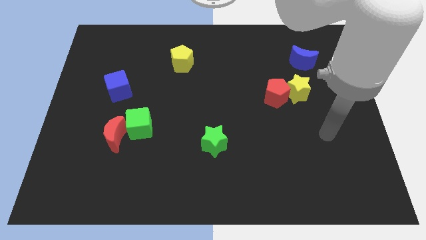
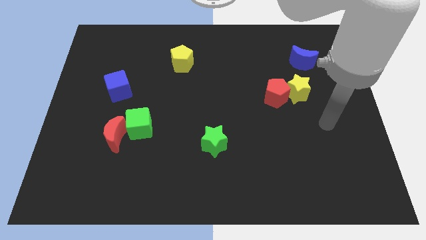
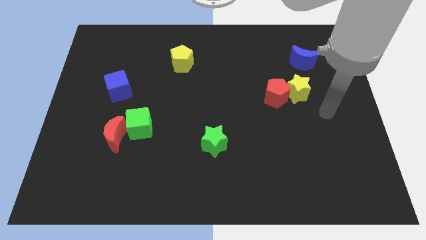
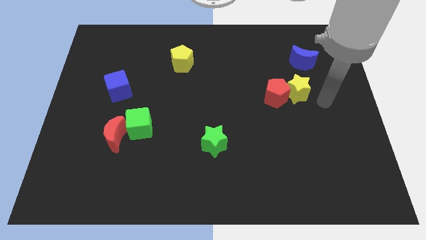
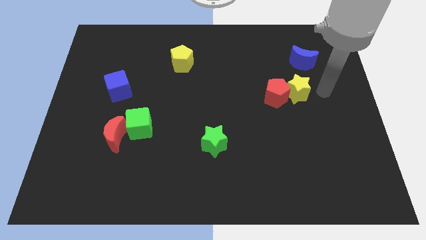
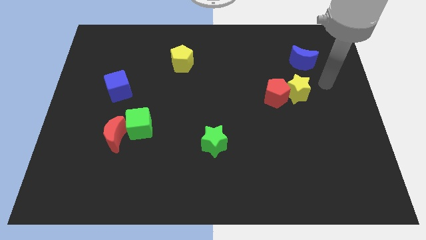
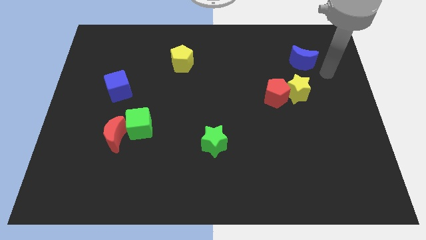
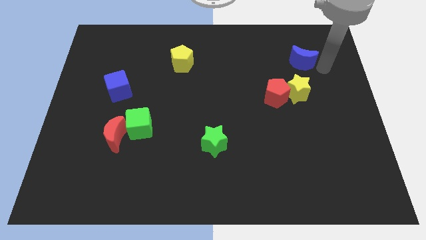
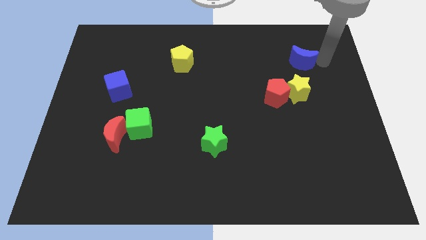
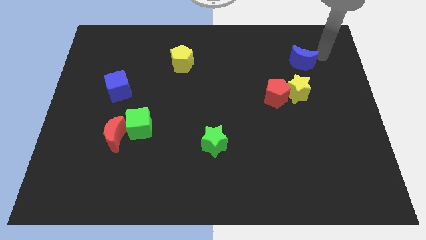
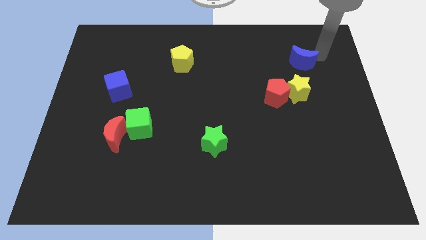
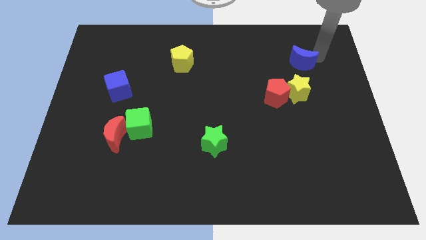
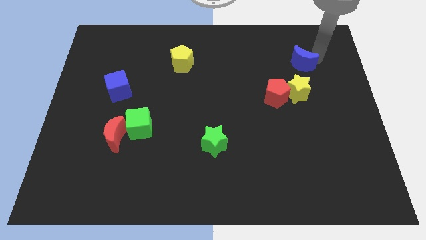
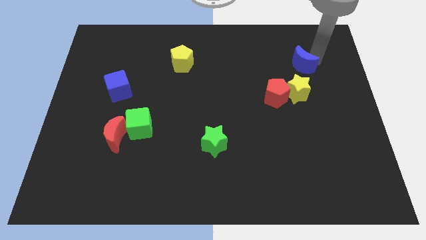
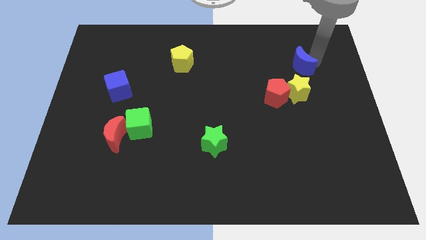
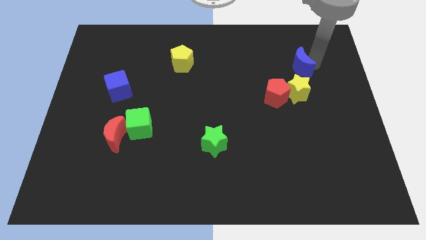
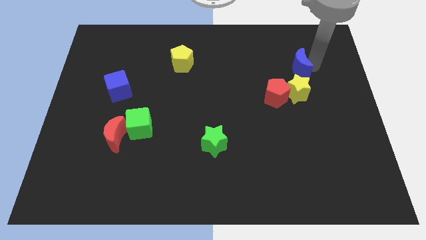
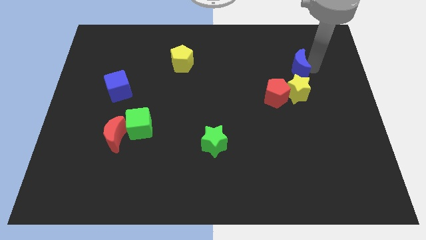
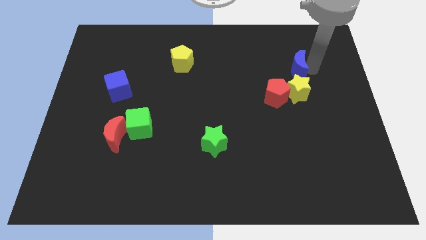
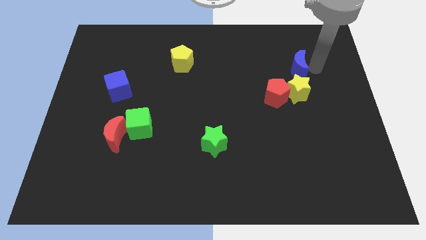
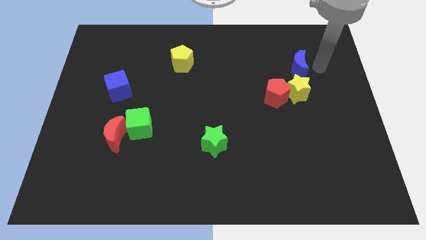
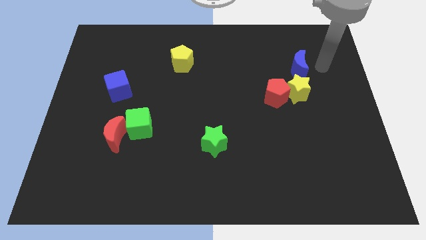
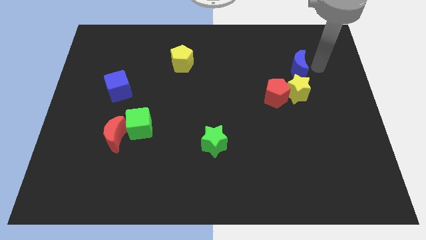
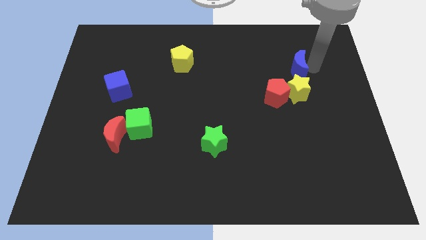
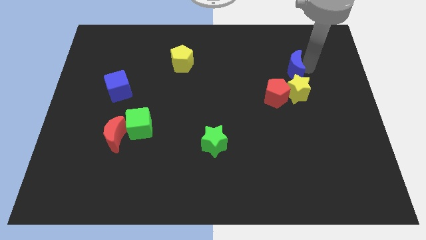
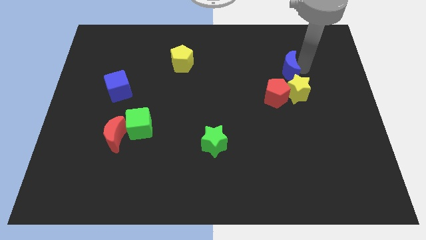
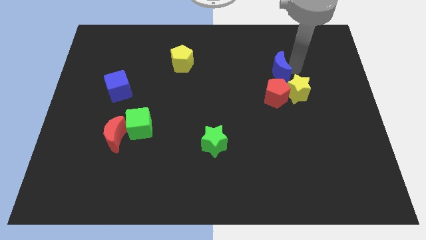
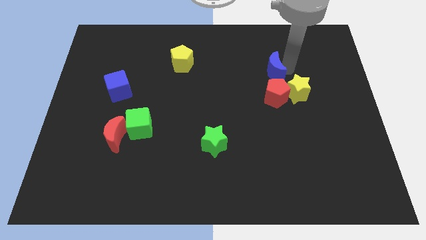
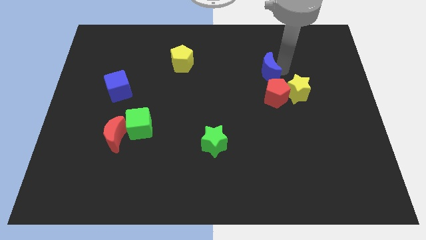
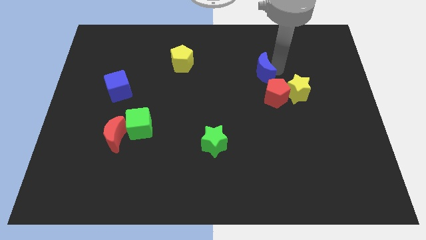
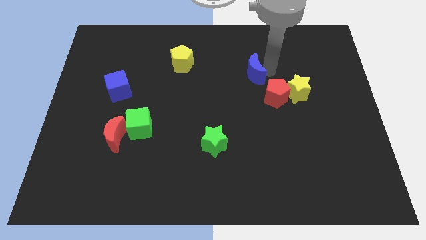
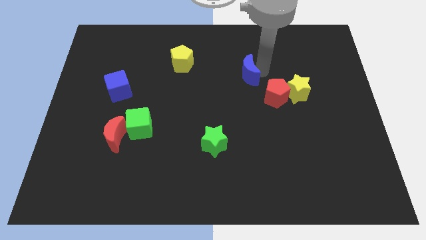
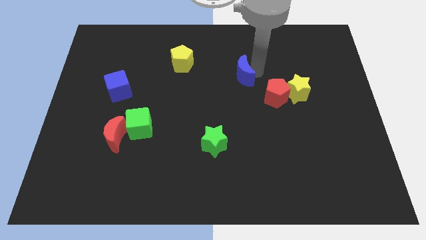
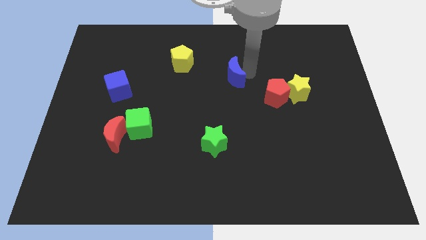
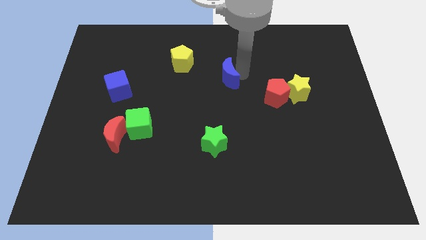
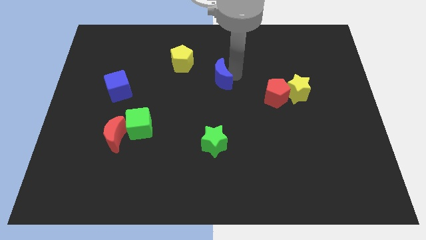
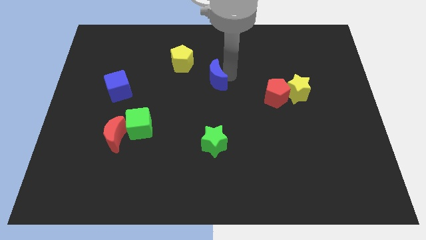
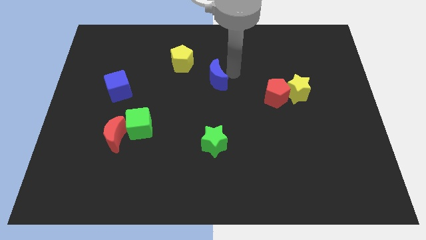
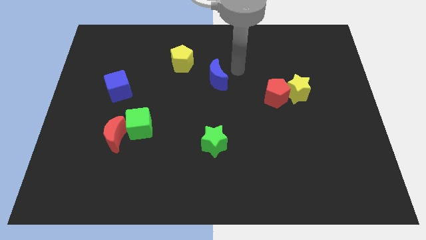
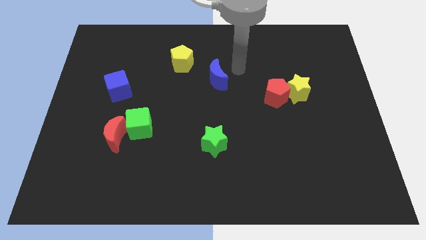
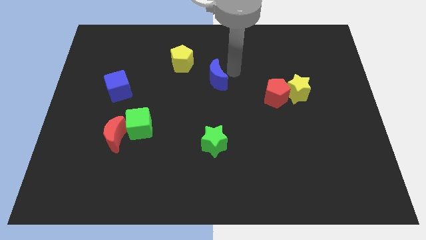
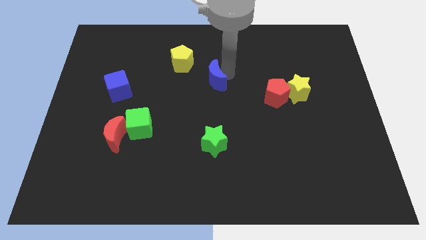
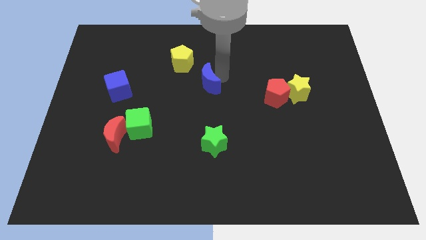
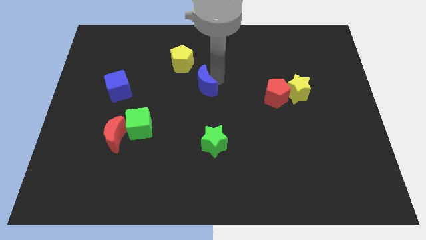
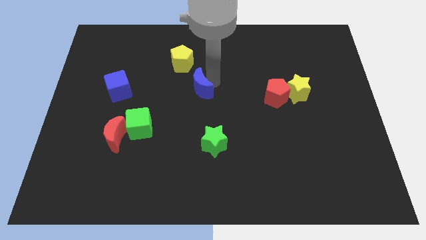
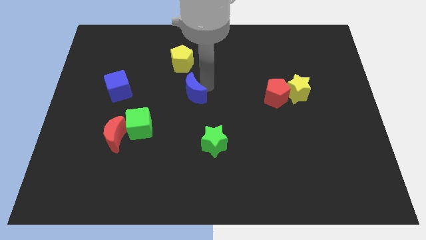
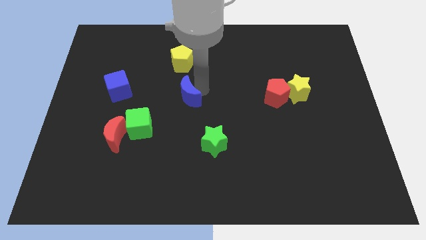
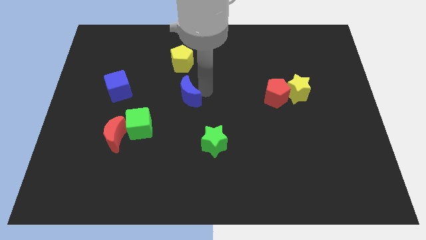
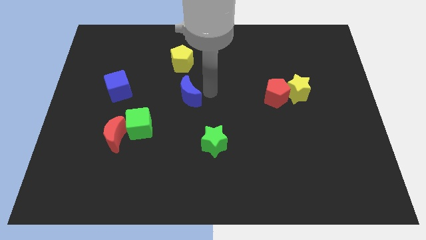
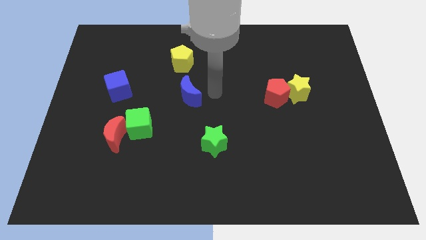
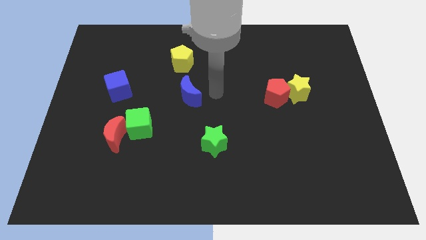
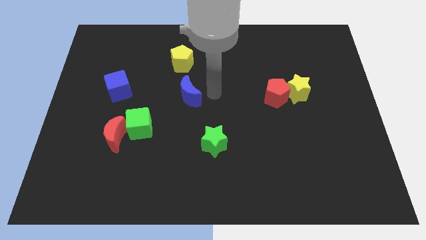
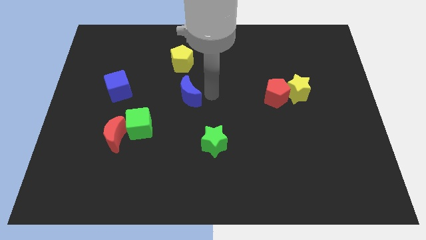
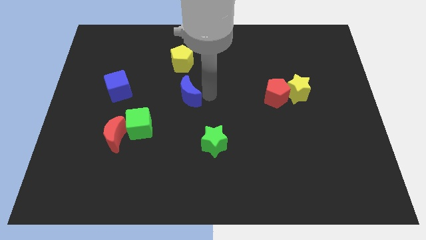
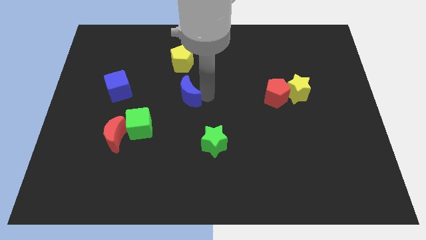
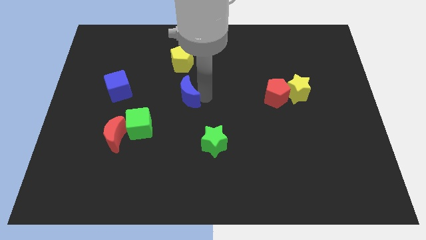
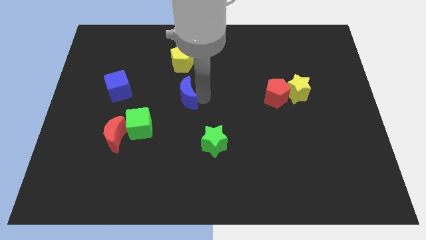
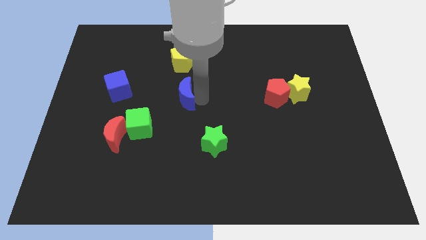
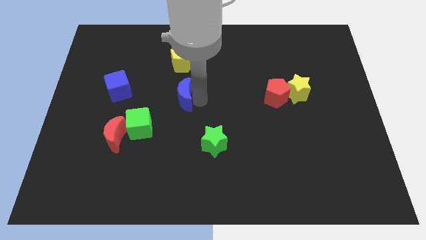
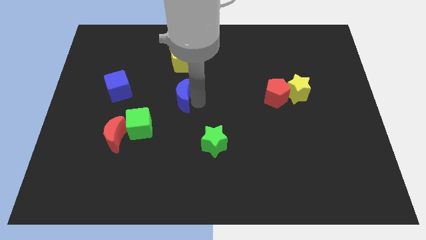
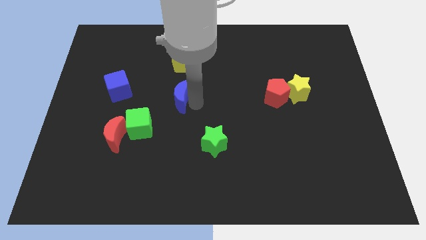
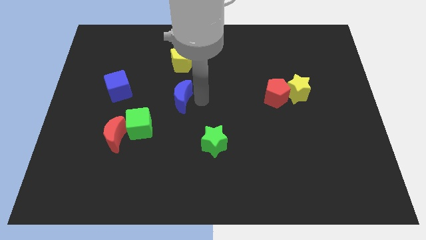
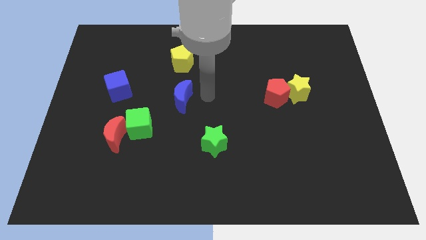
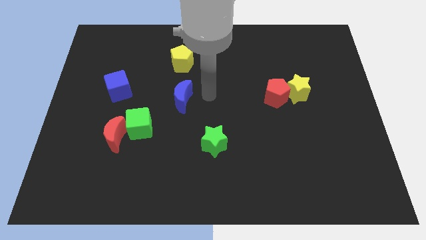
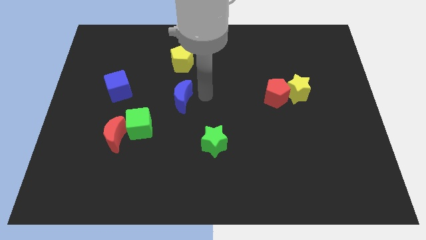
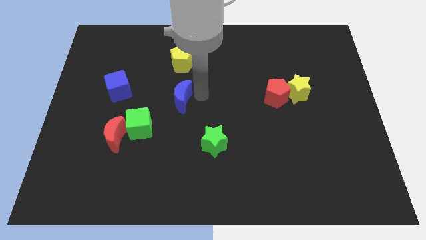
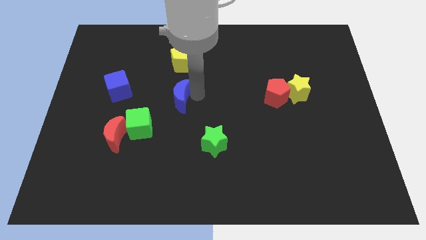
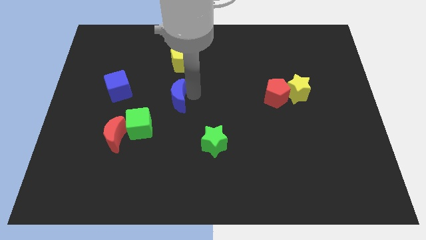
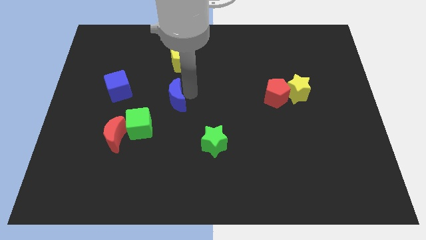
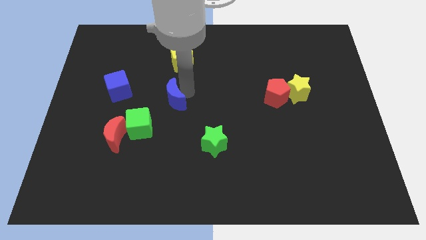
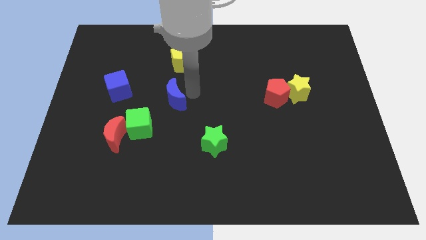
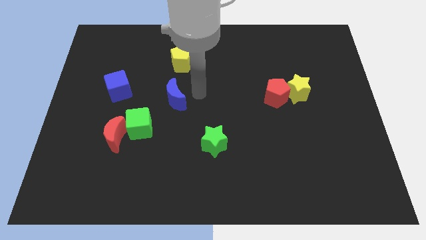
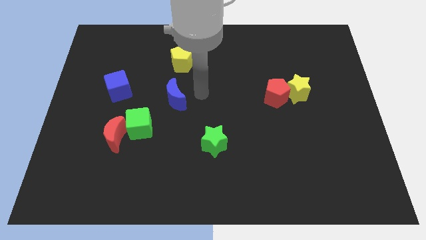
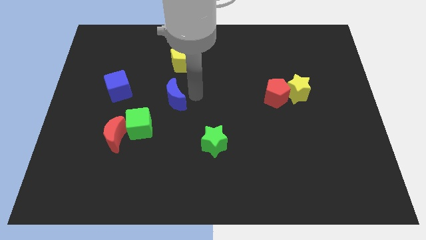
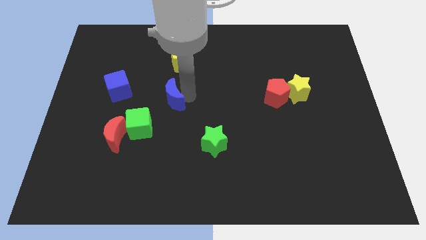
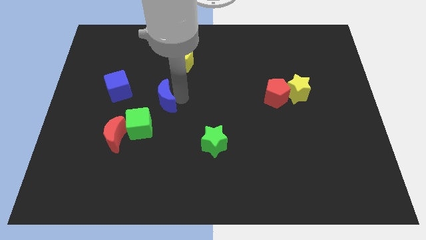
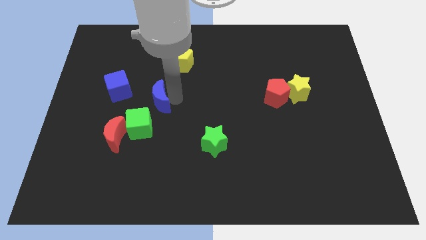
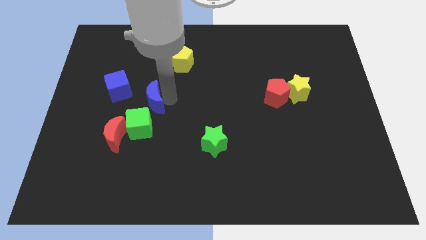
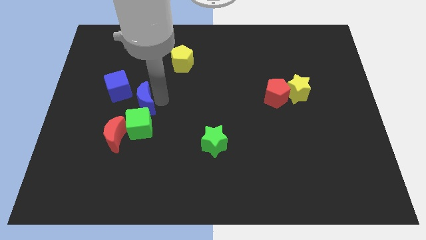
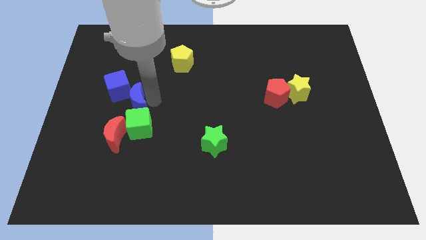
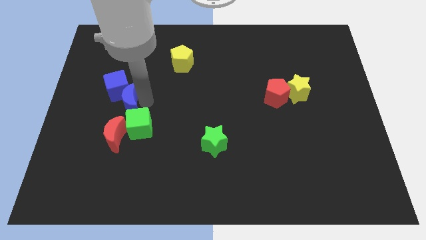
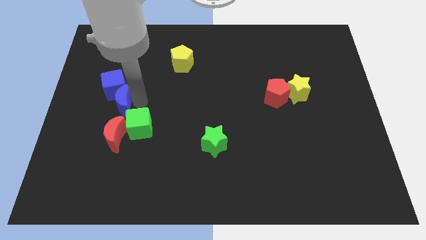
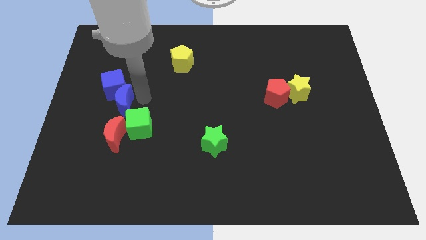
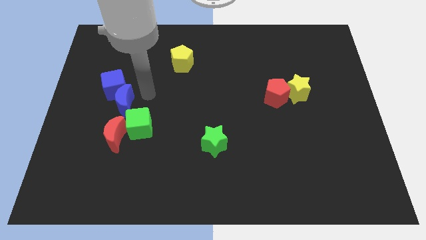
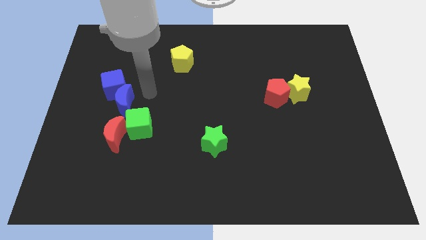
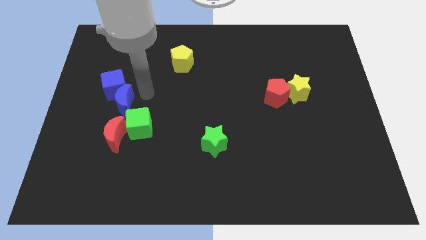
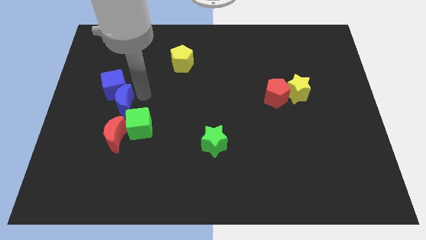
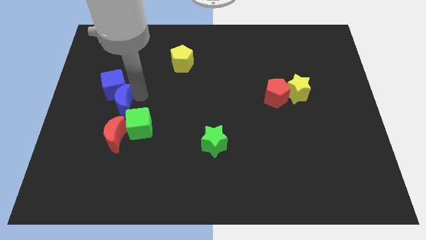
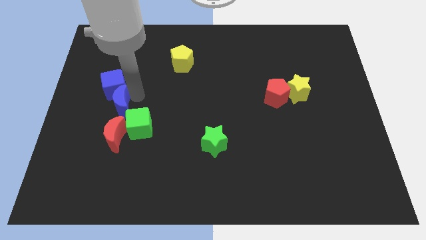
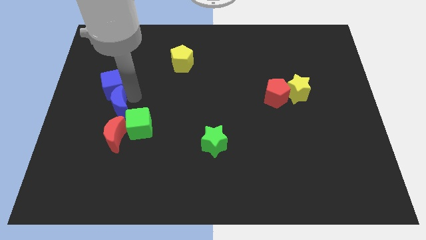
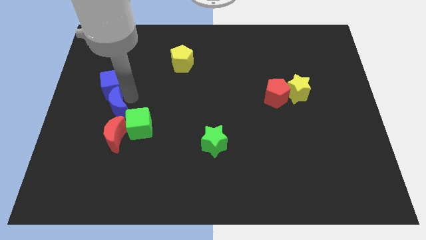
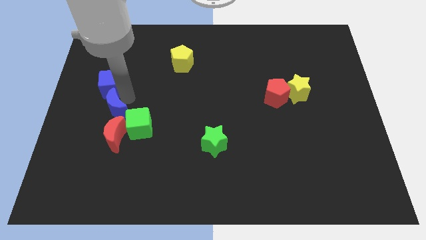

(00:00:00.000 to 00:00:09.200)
put the blue moon to the top left of the red moon
